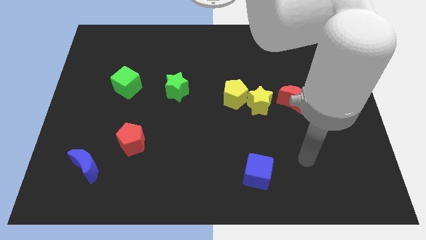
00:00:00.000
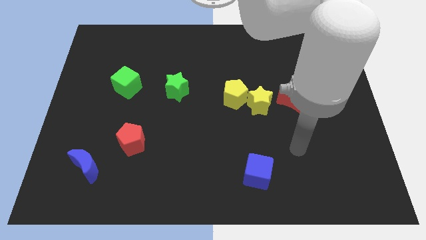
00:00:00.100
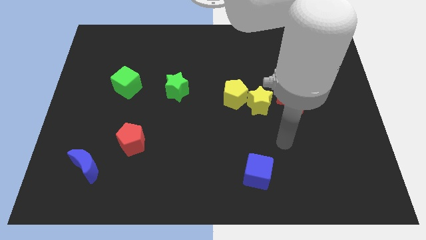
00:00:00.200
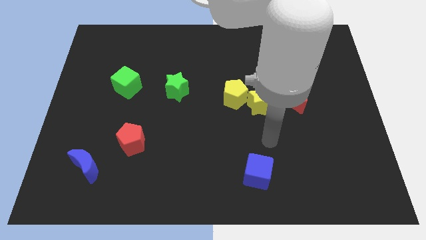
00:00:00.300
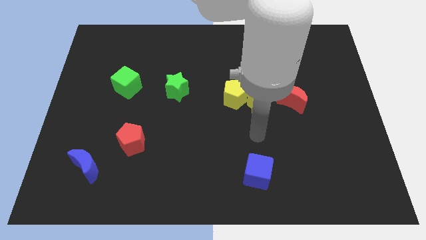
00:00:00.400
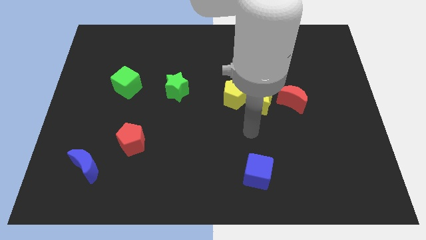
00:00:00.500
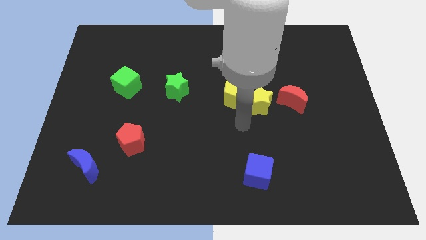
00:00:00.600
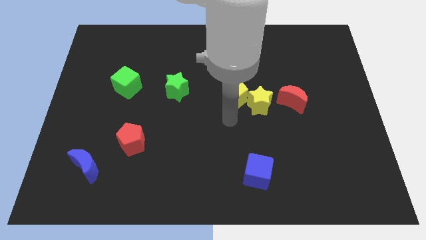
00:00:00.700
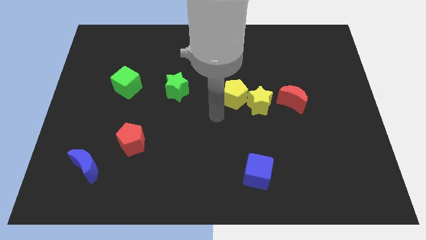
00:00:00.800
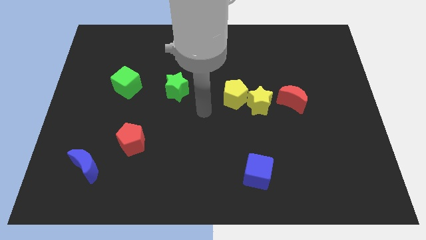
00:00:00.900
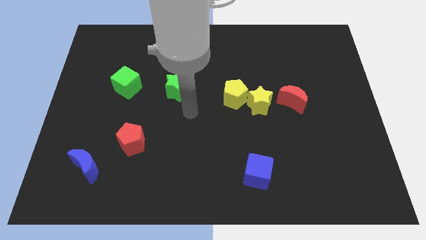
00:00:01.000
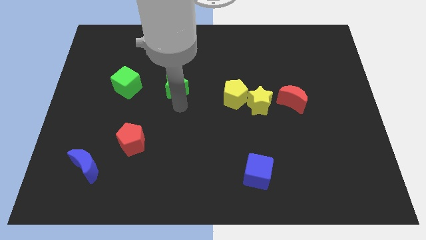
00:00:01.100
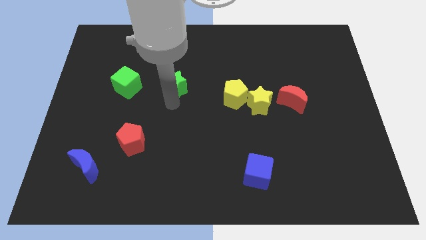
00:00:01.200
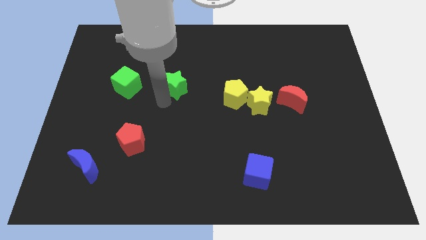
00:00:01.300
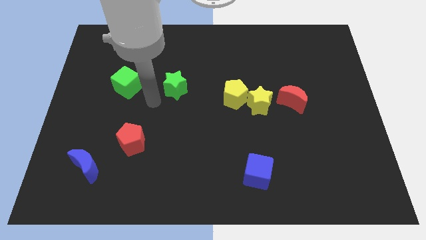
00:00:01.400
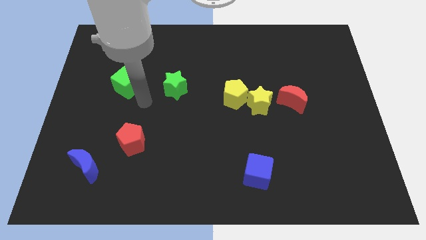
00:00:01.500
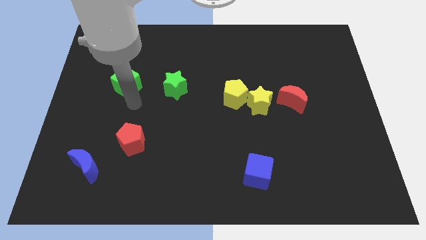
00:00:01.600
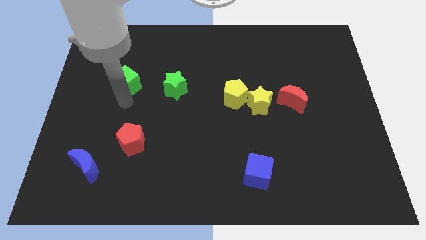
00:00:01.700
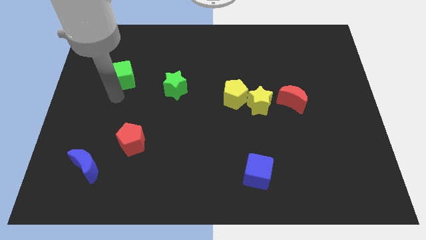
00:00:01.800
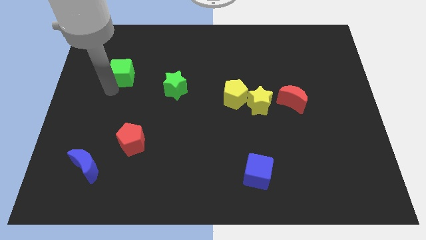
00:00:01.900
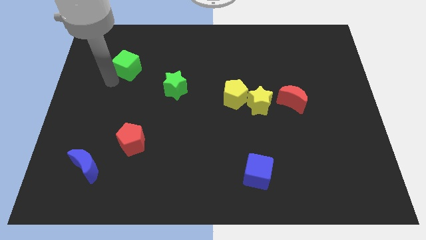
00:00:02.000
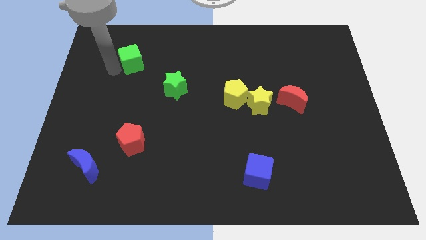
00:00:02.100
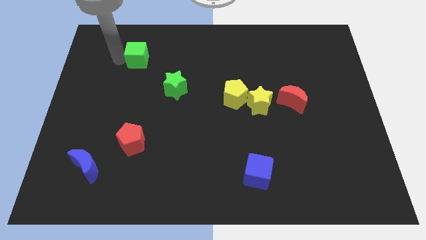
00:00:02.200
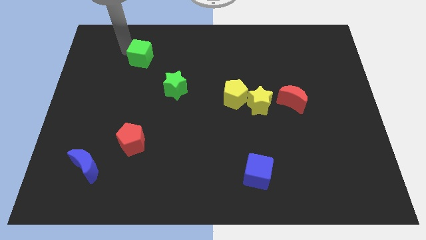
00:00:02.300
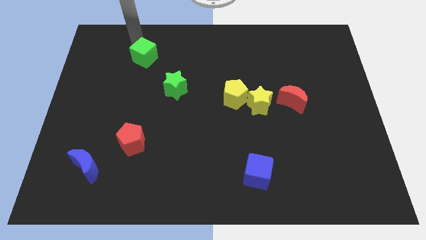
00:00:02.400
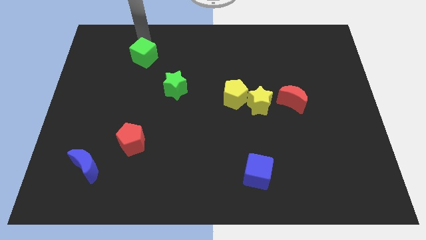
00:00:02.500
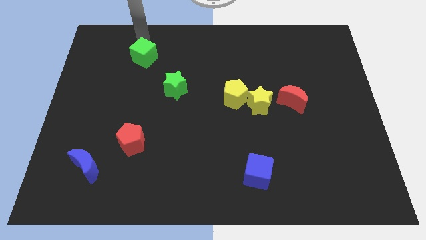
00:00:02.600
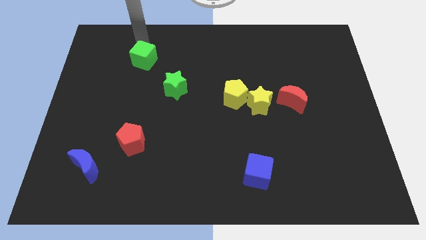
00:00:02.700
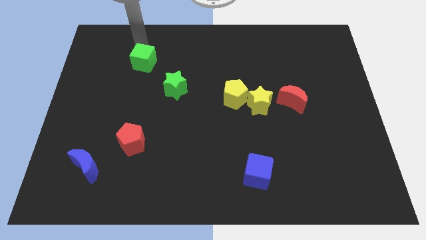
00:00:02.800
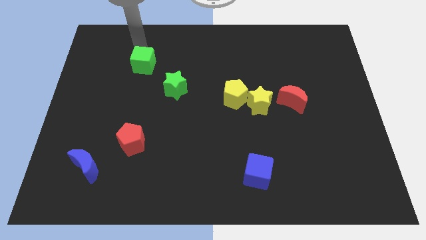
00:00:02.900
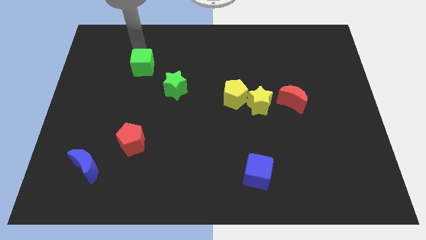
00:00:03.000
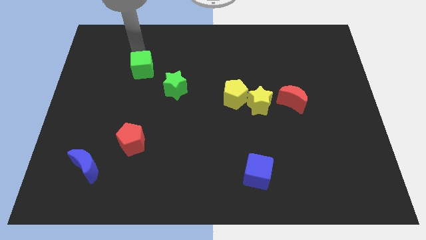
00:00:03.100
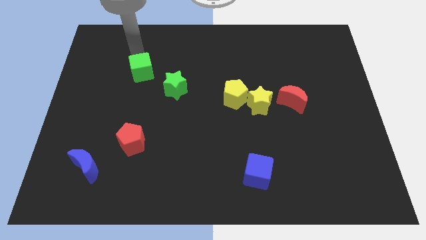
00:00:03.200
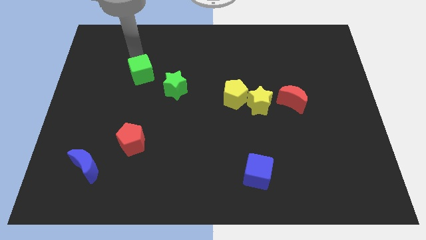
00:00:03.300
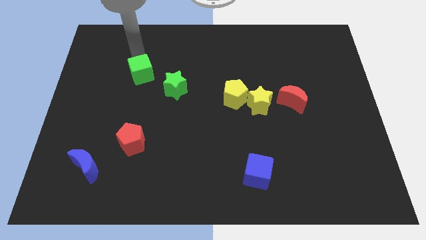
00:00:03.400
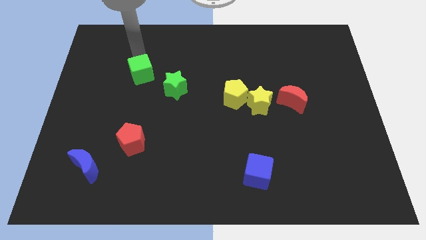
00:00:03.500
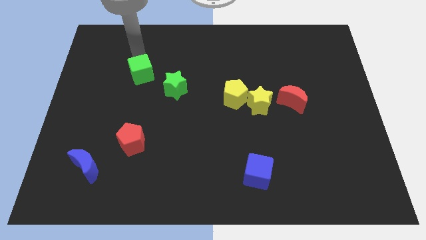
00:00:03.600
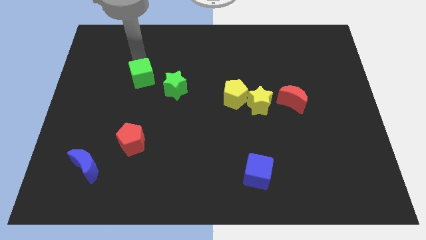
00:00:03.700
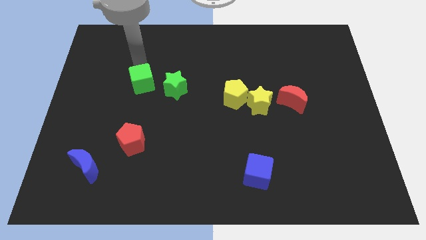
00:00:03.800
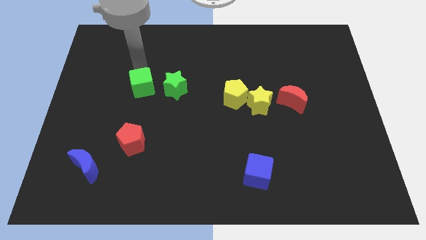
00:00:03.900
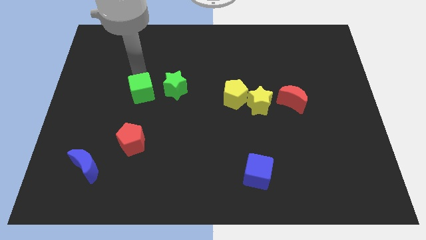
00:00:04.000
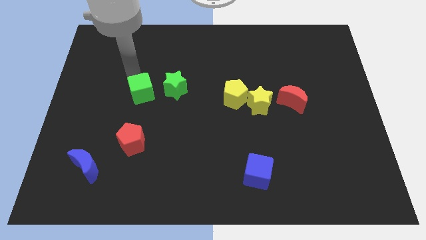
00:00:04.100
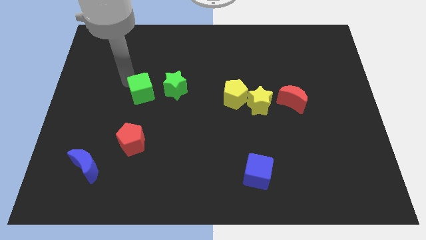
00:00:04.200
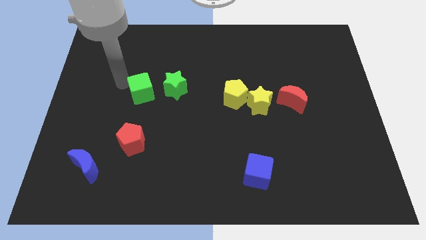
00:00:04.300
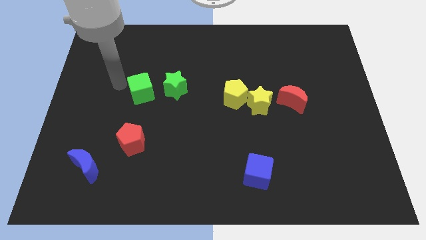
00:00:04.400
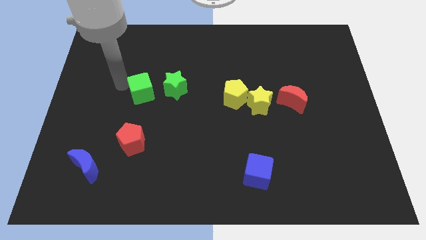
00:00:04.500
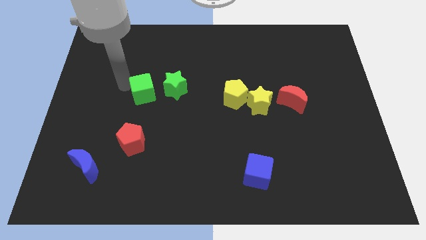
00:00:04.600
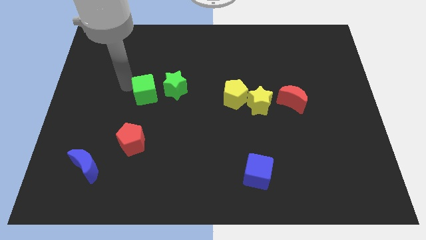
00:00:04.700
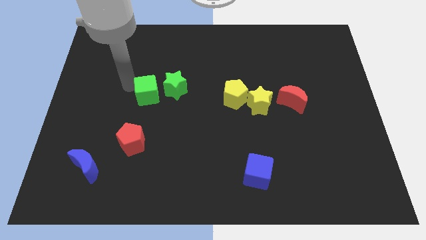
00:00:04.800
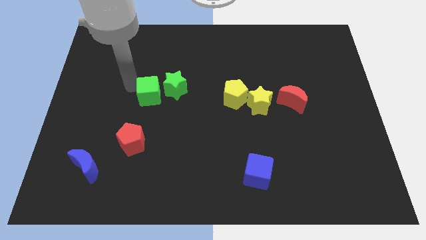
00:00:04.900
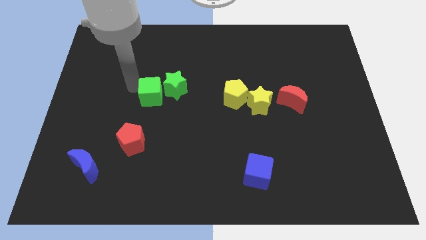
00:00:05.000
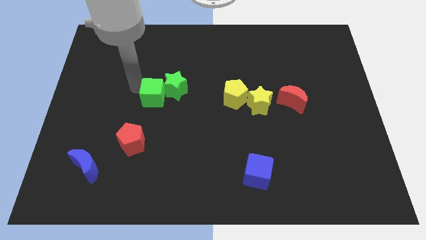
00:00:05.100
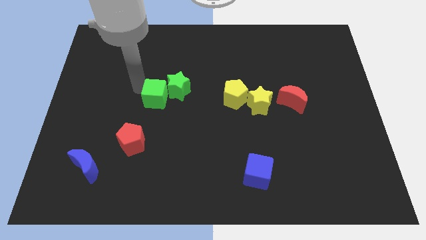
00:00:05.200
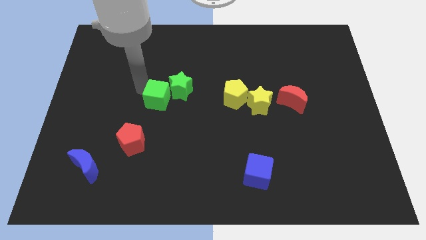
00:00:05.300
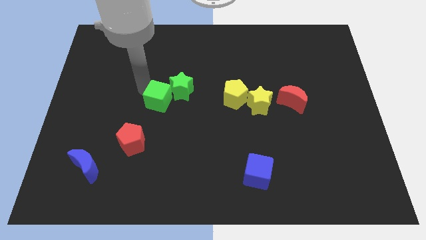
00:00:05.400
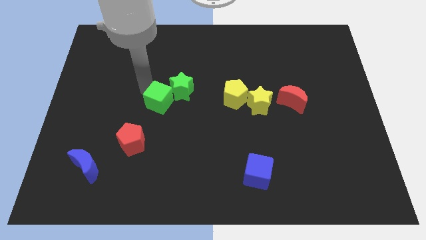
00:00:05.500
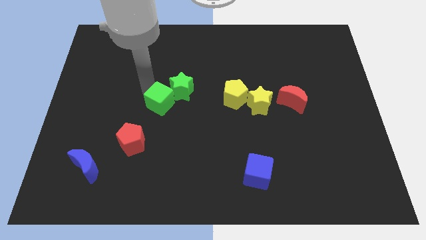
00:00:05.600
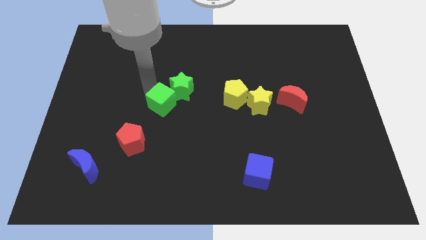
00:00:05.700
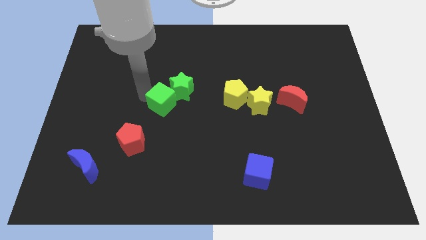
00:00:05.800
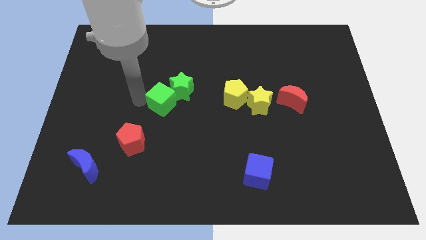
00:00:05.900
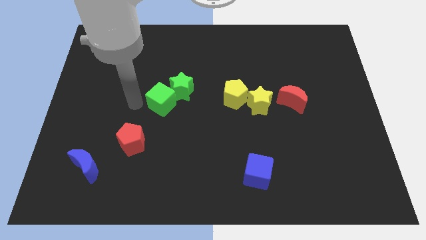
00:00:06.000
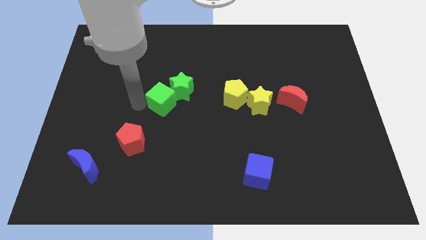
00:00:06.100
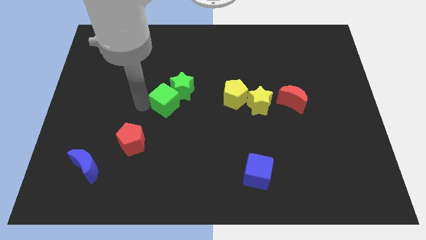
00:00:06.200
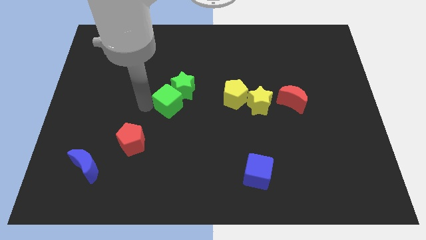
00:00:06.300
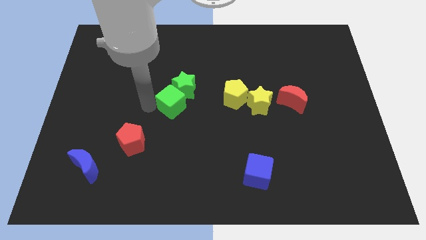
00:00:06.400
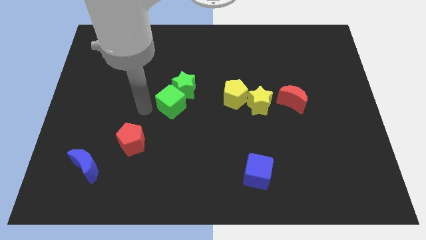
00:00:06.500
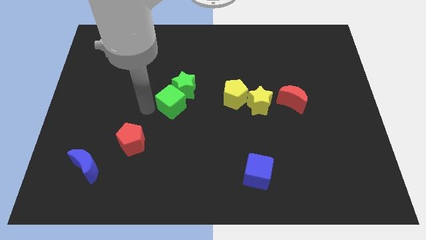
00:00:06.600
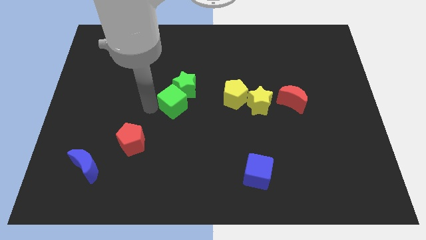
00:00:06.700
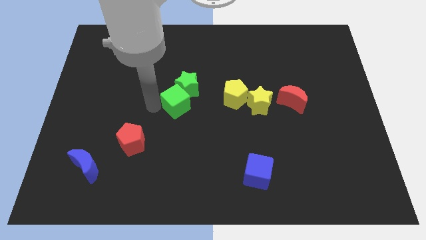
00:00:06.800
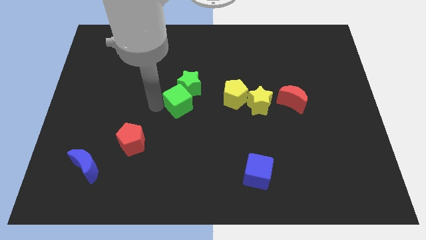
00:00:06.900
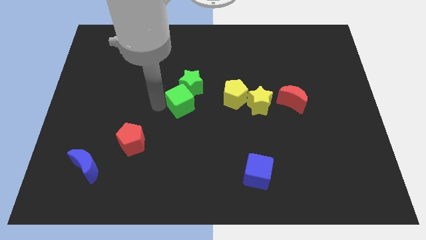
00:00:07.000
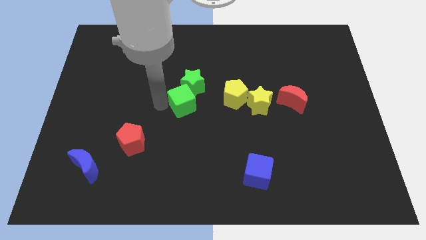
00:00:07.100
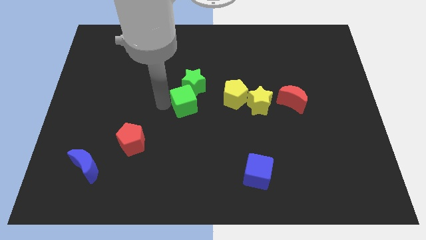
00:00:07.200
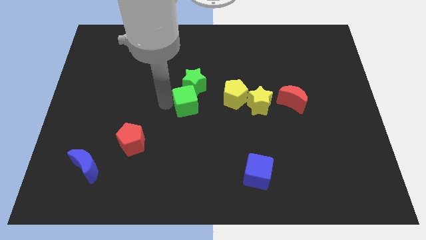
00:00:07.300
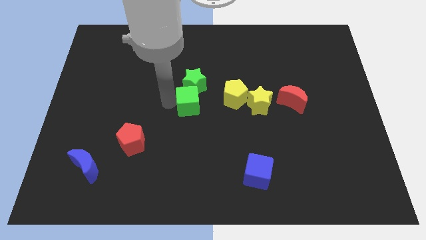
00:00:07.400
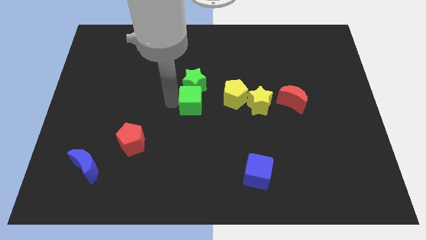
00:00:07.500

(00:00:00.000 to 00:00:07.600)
put the green cube to the left of the yellow star
